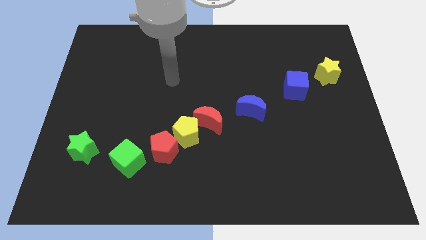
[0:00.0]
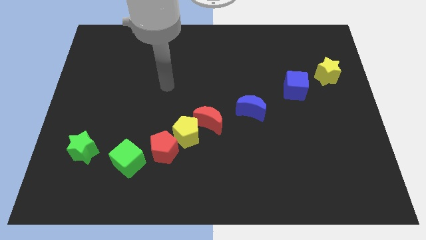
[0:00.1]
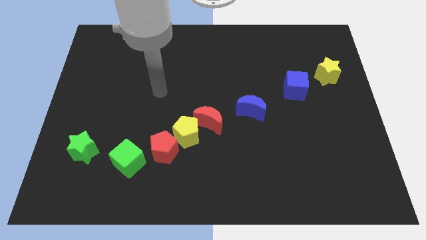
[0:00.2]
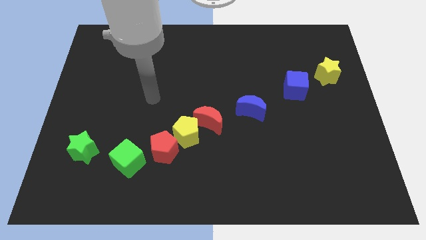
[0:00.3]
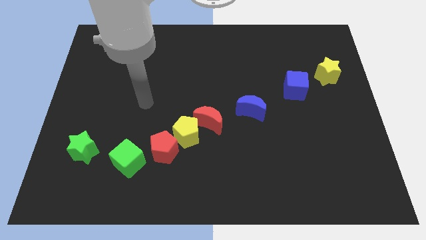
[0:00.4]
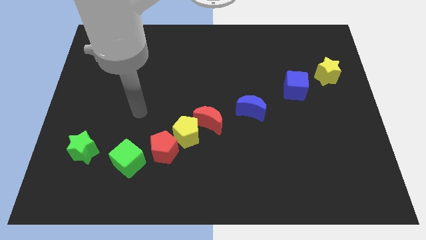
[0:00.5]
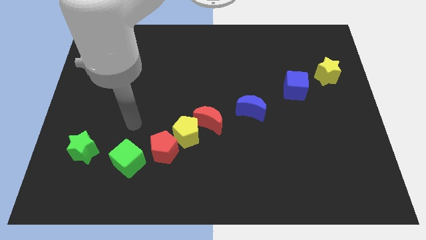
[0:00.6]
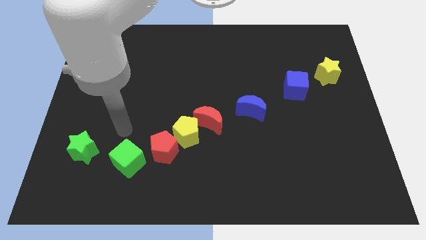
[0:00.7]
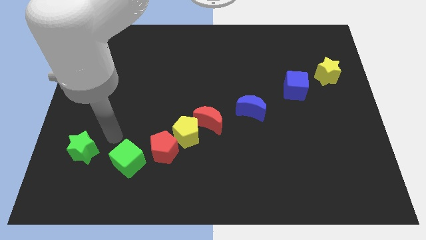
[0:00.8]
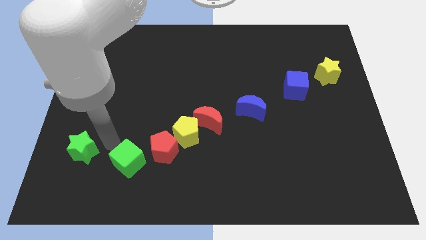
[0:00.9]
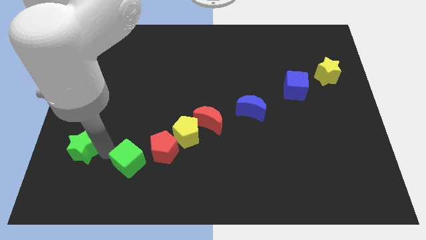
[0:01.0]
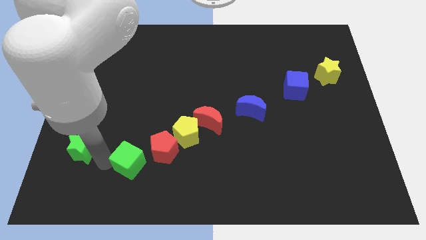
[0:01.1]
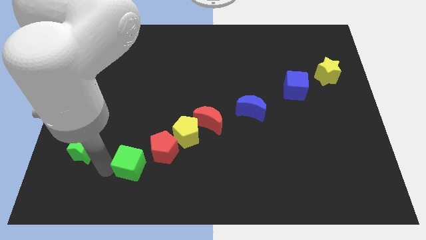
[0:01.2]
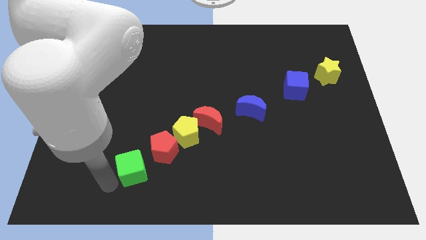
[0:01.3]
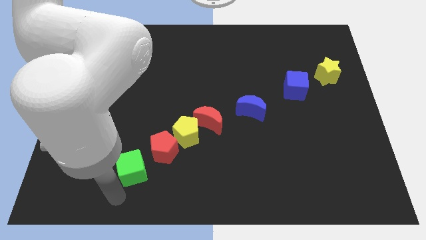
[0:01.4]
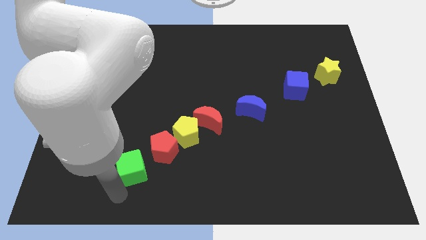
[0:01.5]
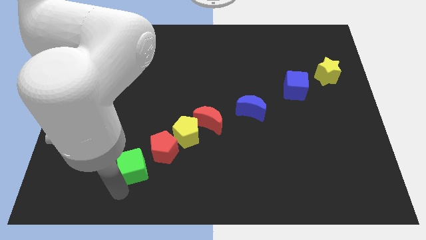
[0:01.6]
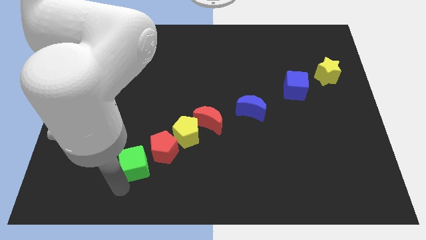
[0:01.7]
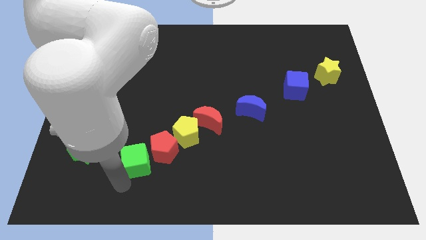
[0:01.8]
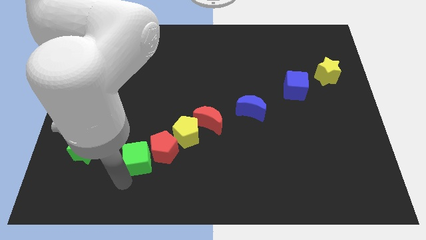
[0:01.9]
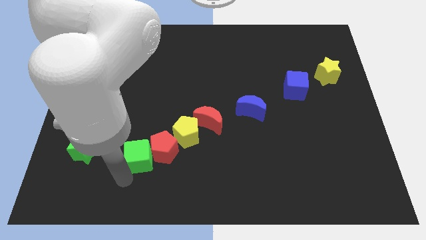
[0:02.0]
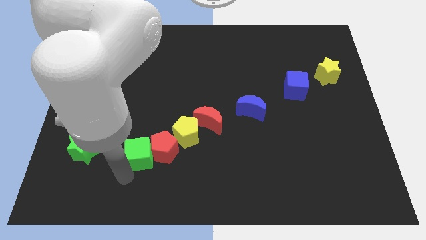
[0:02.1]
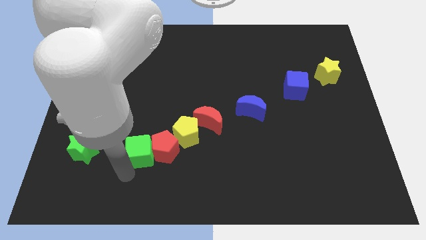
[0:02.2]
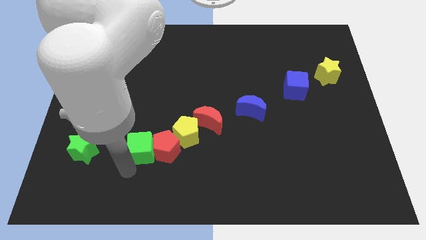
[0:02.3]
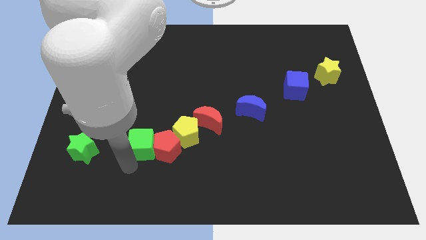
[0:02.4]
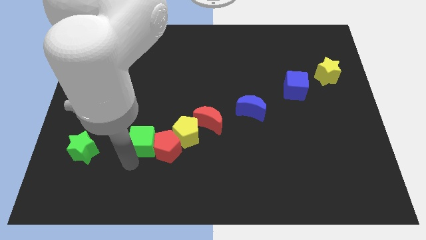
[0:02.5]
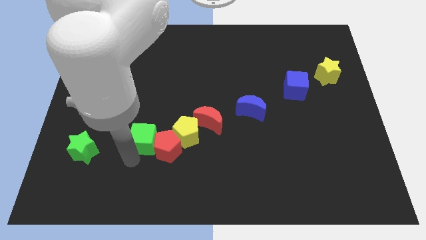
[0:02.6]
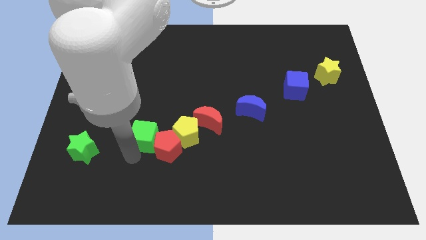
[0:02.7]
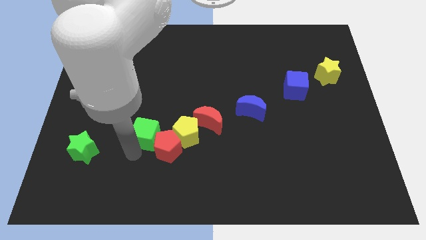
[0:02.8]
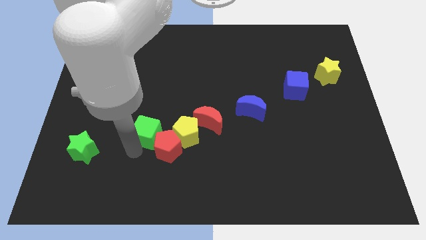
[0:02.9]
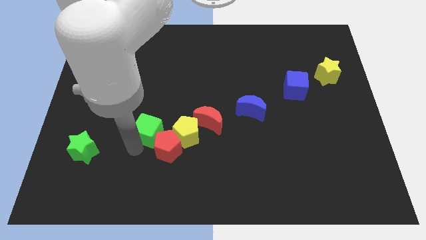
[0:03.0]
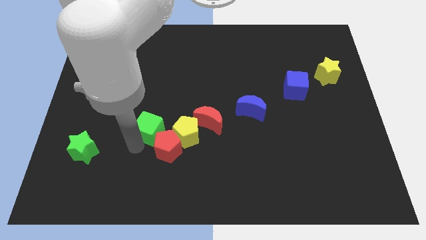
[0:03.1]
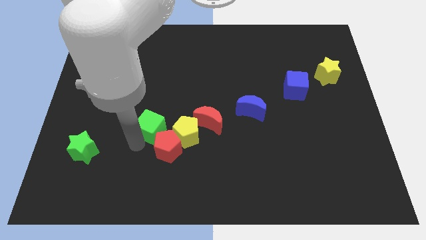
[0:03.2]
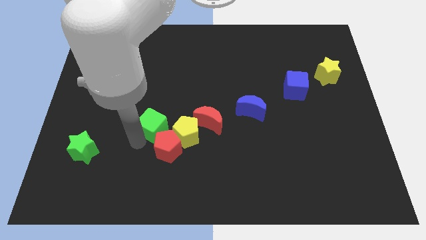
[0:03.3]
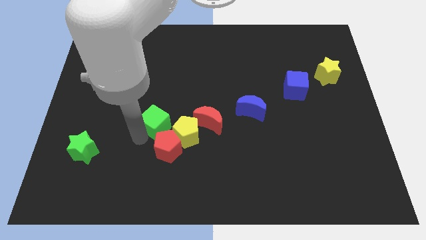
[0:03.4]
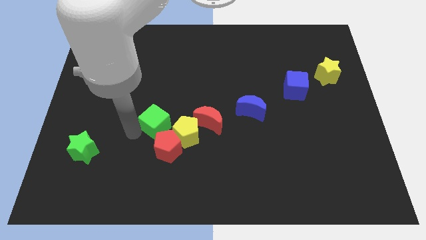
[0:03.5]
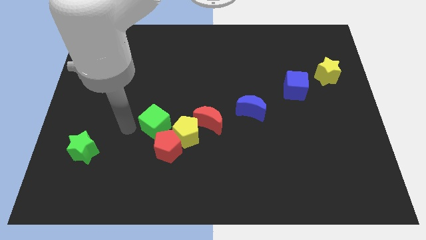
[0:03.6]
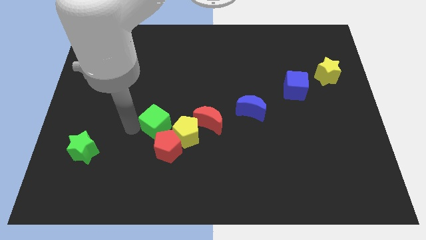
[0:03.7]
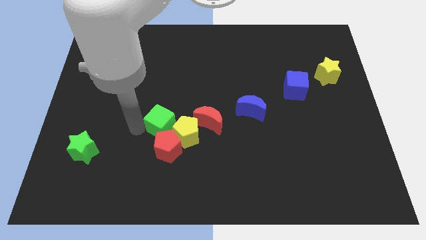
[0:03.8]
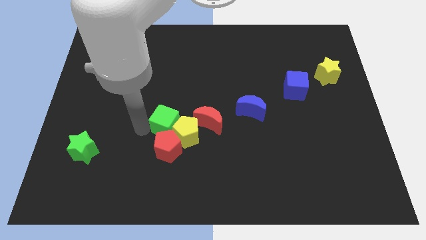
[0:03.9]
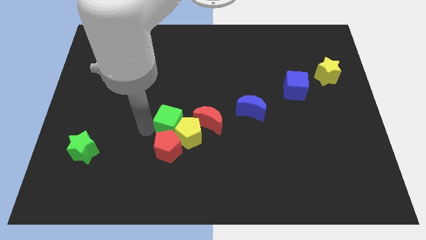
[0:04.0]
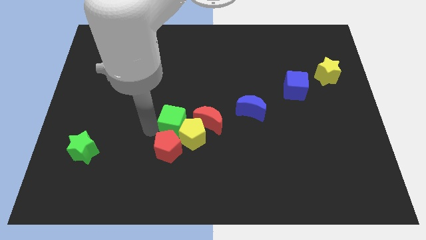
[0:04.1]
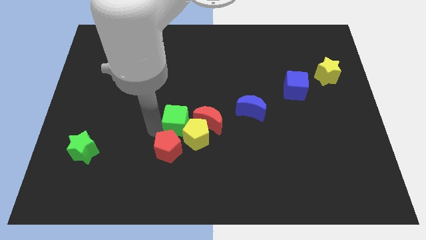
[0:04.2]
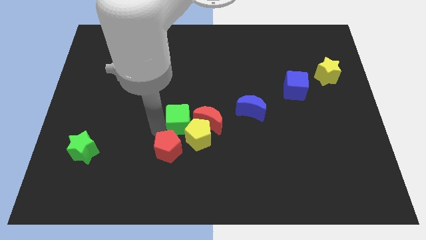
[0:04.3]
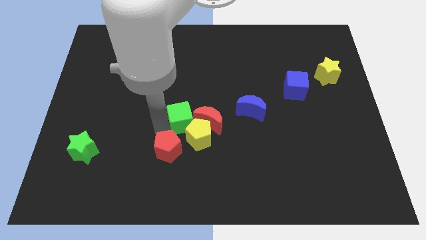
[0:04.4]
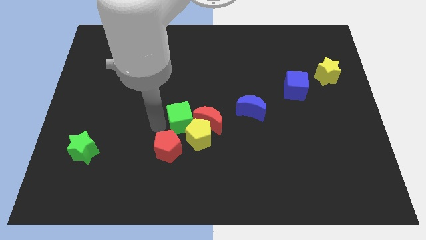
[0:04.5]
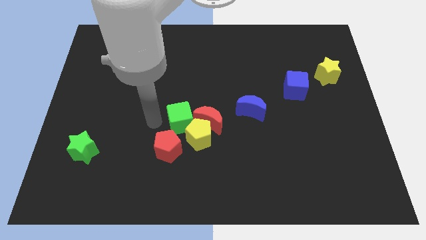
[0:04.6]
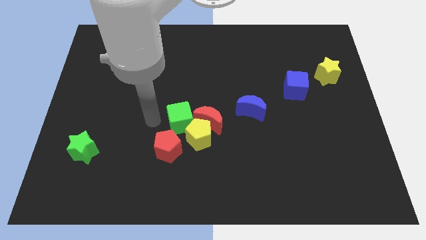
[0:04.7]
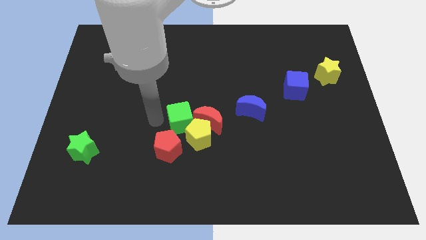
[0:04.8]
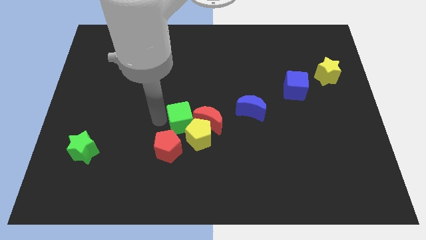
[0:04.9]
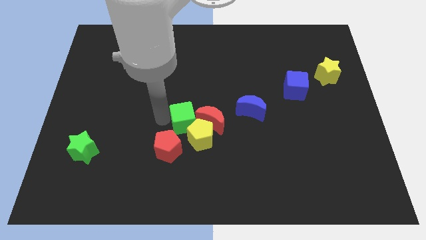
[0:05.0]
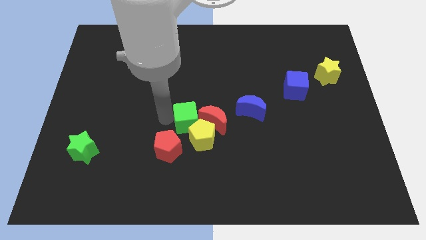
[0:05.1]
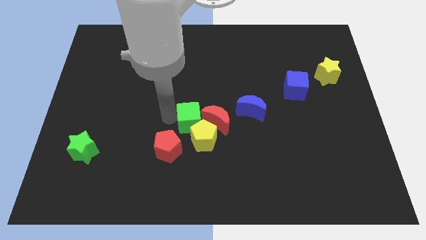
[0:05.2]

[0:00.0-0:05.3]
put the green cube to the red moon

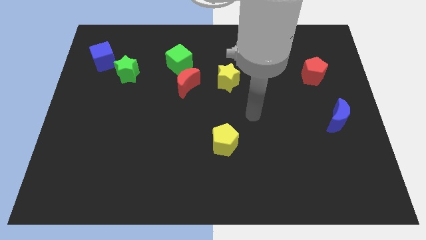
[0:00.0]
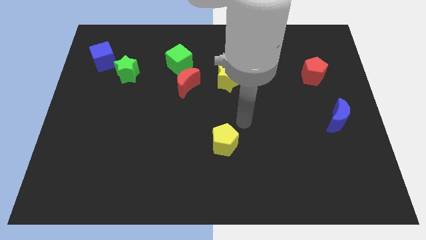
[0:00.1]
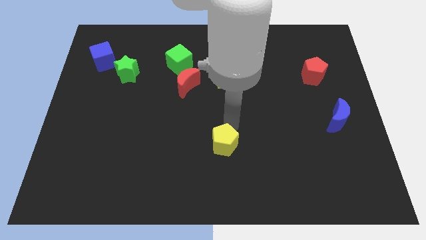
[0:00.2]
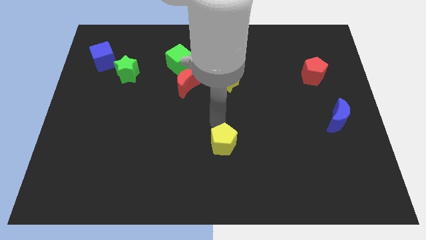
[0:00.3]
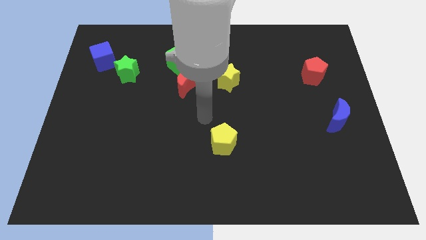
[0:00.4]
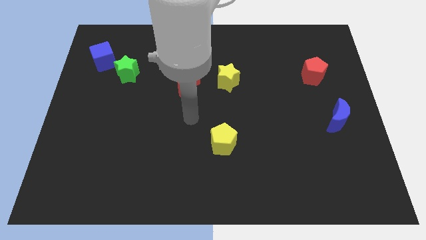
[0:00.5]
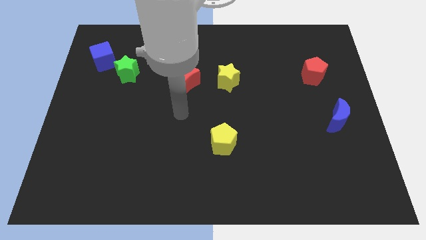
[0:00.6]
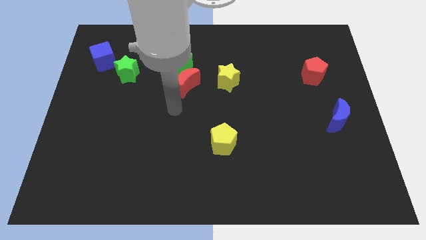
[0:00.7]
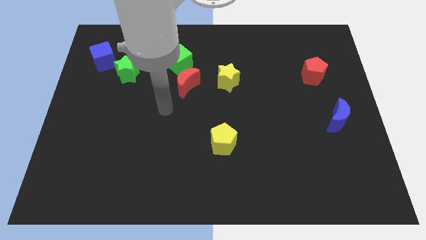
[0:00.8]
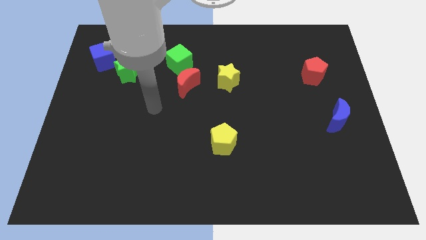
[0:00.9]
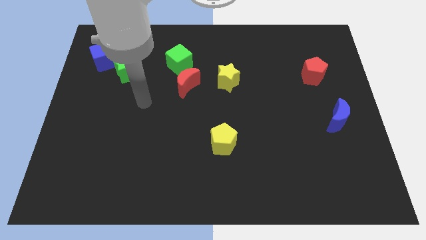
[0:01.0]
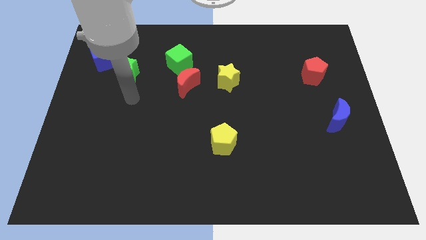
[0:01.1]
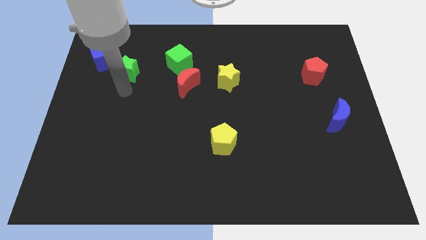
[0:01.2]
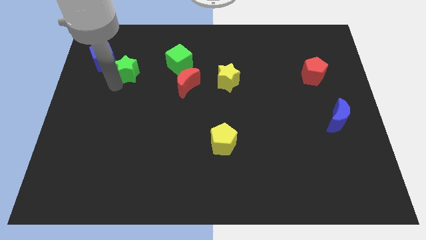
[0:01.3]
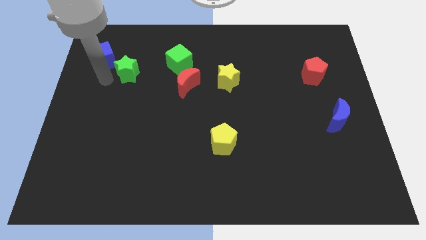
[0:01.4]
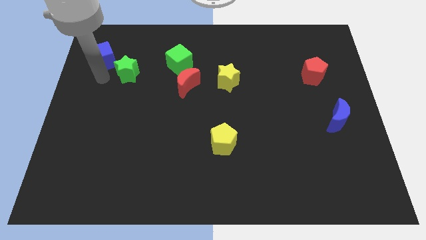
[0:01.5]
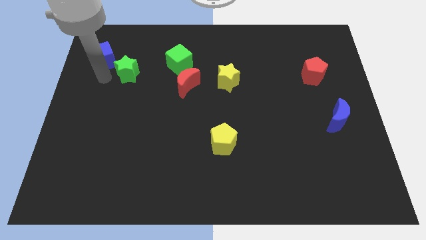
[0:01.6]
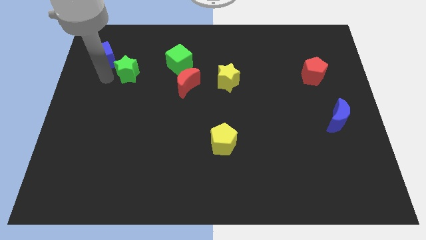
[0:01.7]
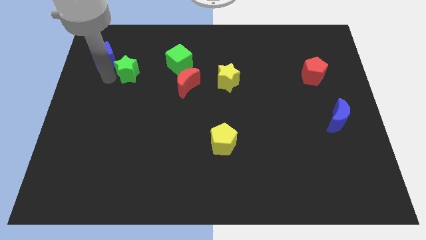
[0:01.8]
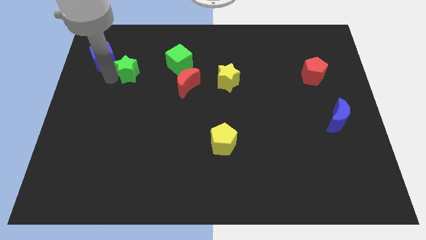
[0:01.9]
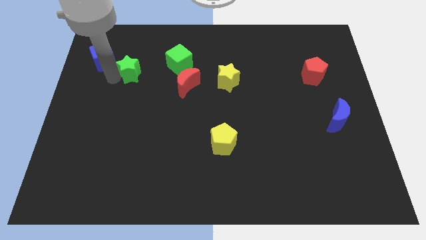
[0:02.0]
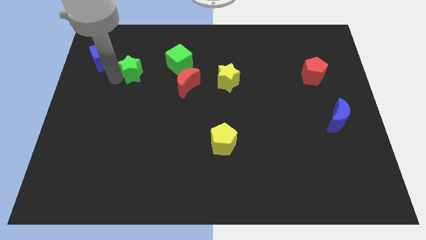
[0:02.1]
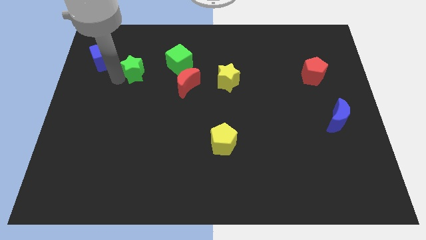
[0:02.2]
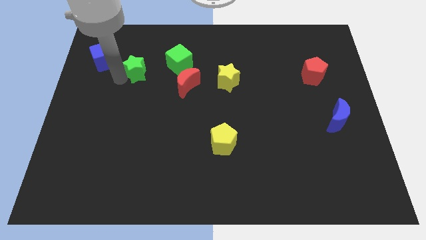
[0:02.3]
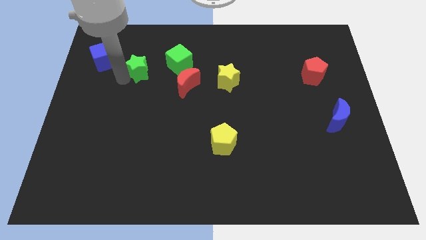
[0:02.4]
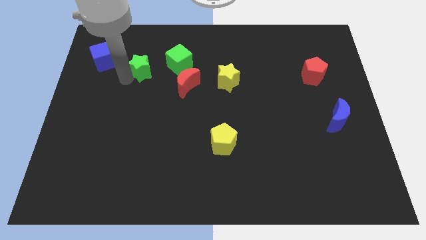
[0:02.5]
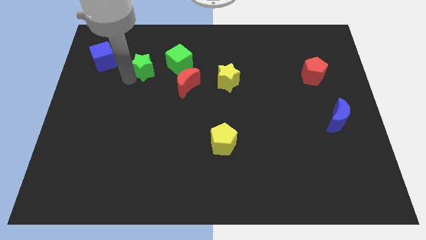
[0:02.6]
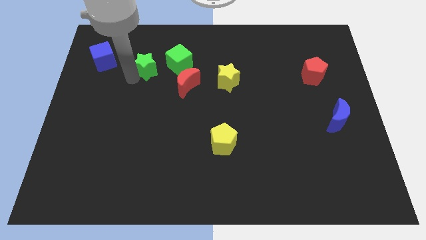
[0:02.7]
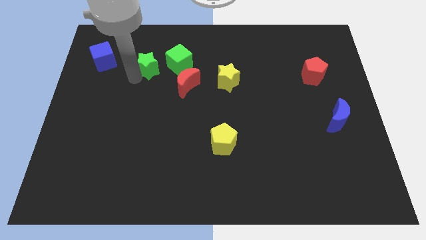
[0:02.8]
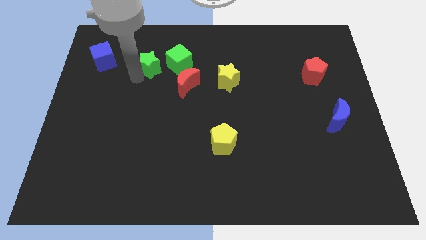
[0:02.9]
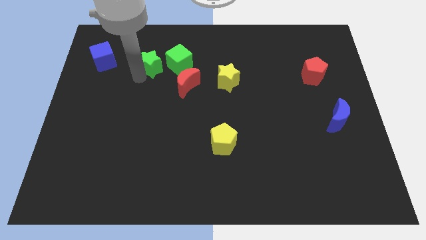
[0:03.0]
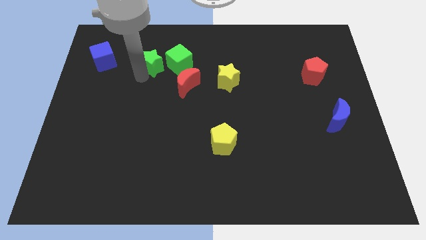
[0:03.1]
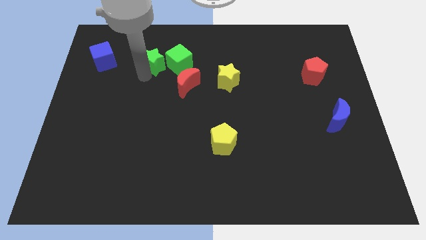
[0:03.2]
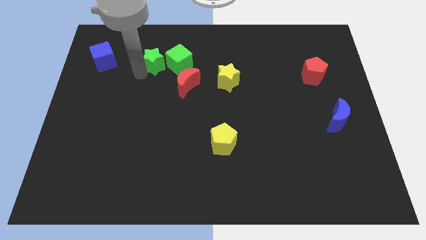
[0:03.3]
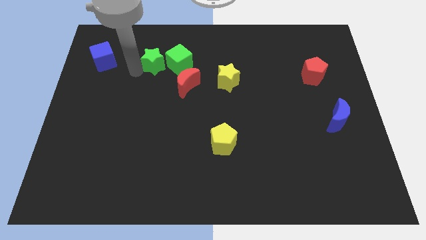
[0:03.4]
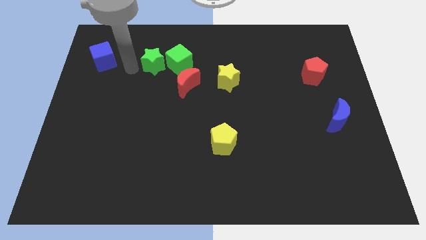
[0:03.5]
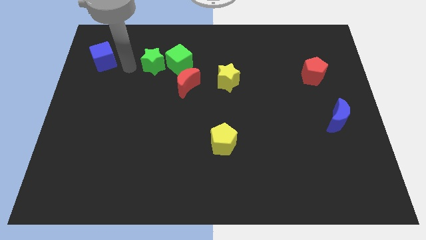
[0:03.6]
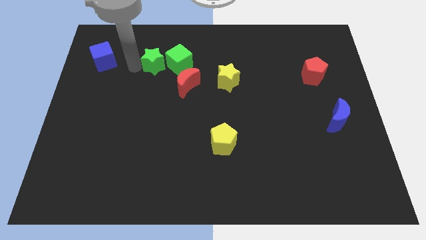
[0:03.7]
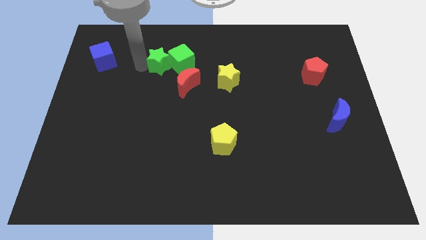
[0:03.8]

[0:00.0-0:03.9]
put the green star next to the green cube
